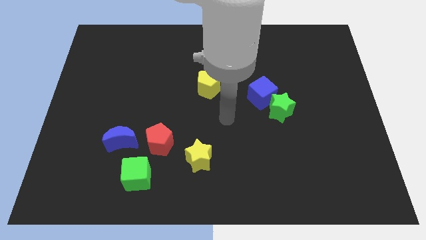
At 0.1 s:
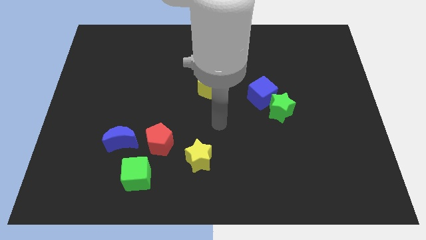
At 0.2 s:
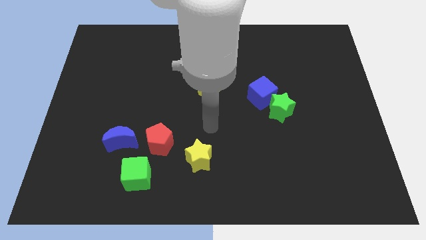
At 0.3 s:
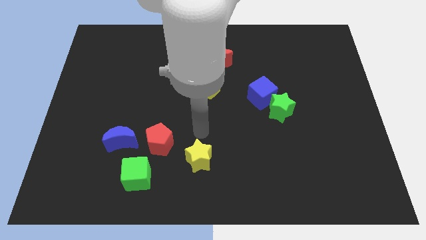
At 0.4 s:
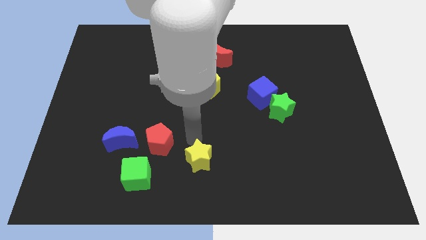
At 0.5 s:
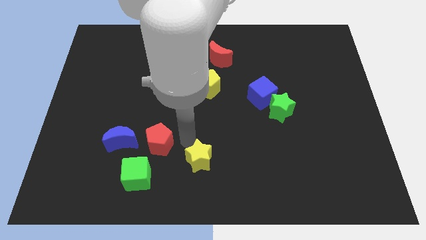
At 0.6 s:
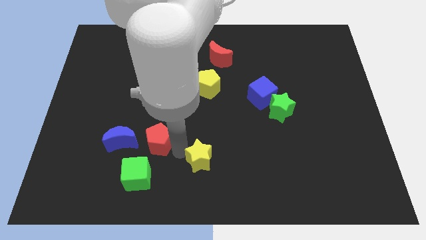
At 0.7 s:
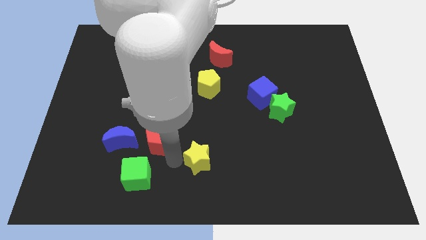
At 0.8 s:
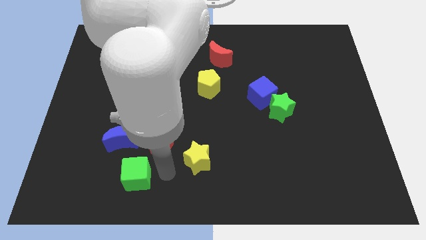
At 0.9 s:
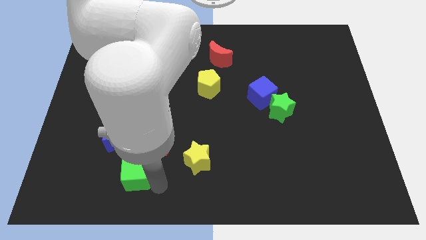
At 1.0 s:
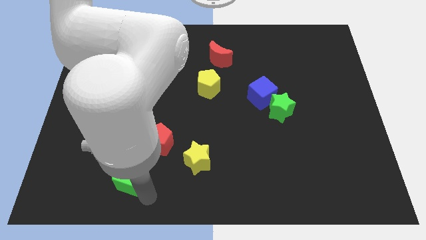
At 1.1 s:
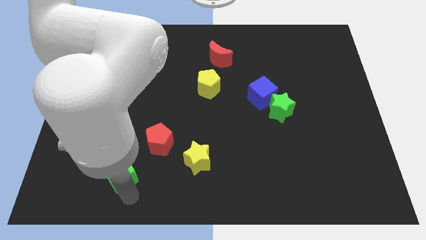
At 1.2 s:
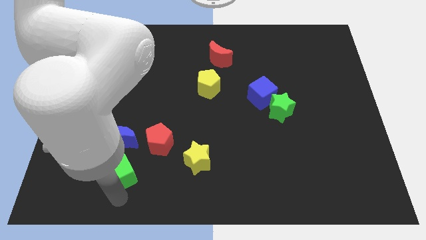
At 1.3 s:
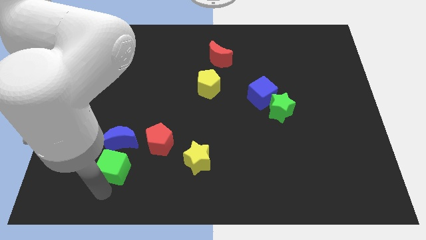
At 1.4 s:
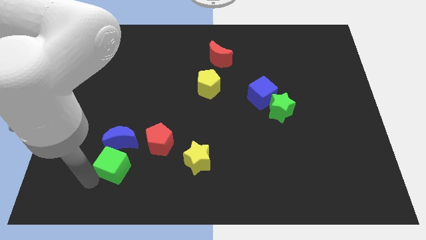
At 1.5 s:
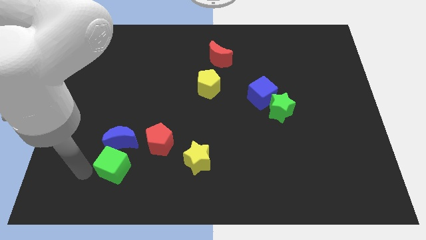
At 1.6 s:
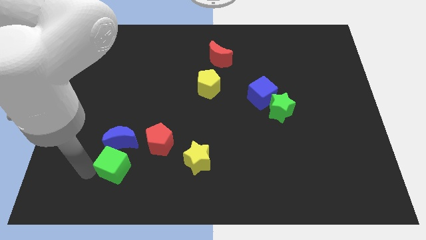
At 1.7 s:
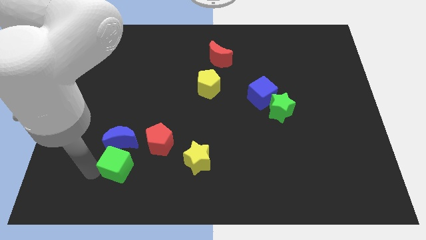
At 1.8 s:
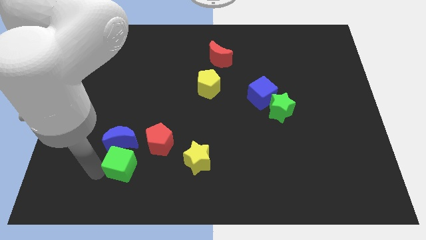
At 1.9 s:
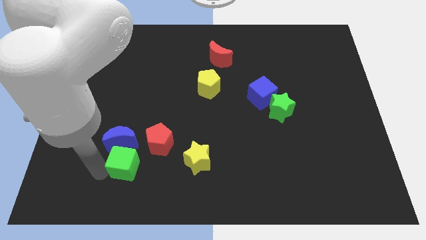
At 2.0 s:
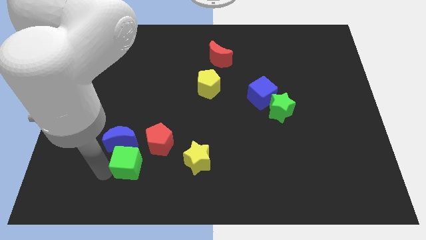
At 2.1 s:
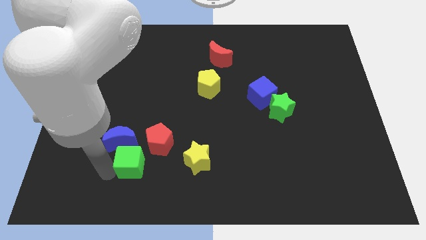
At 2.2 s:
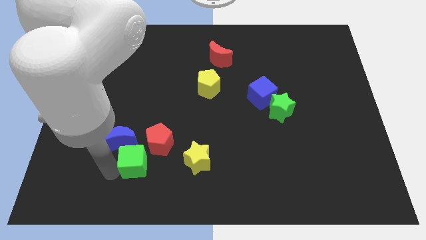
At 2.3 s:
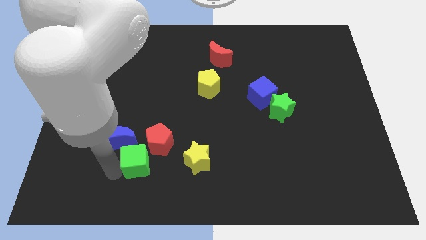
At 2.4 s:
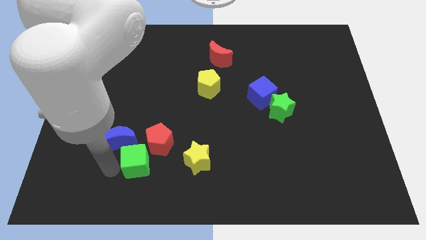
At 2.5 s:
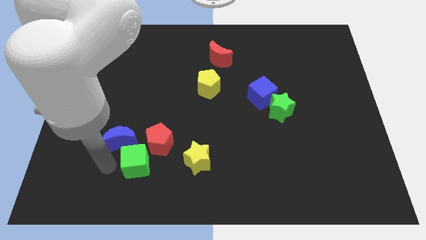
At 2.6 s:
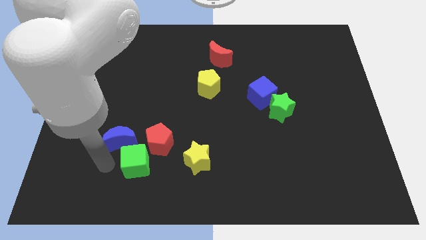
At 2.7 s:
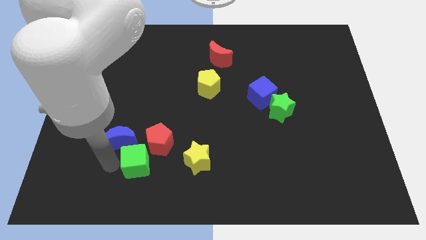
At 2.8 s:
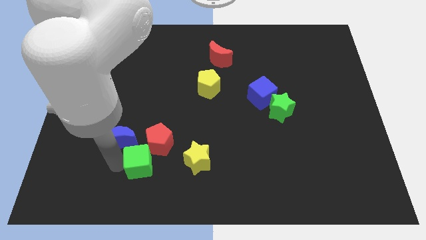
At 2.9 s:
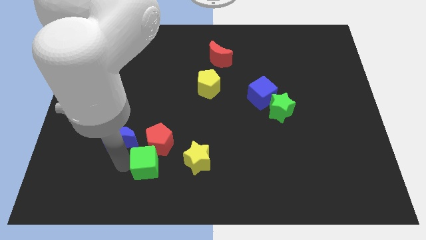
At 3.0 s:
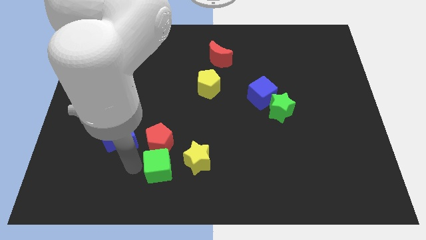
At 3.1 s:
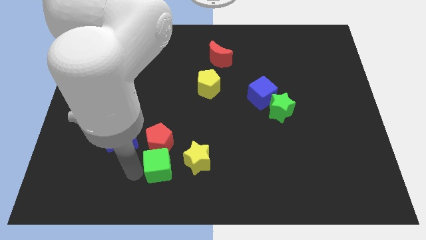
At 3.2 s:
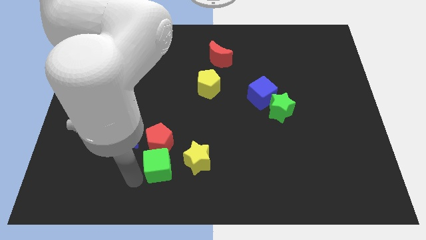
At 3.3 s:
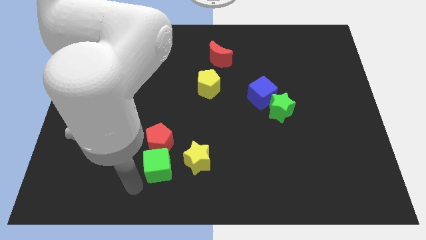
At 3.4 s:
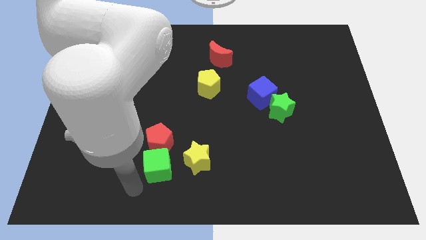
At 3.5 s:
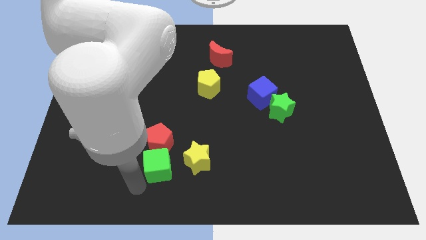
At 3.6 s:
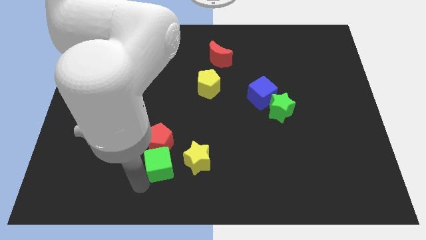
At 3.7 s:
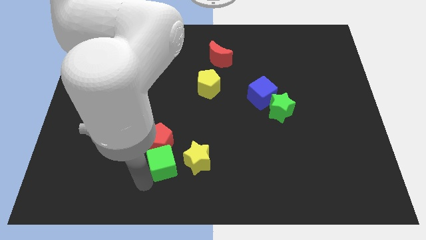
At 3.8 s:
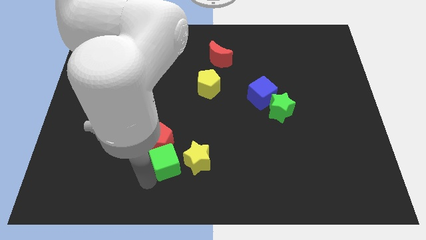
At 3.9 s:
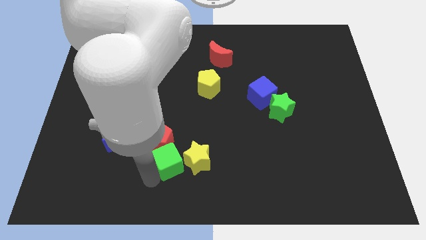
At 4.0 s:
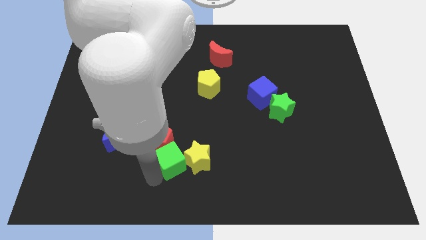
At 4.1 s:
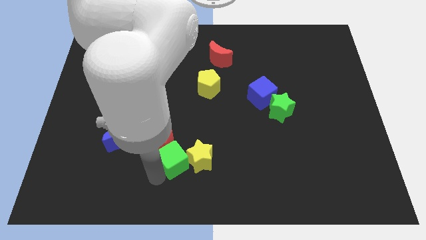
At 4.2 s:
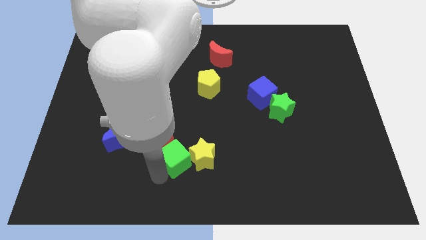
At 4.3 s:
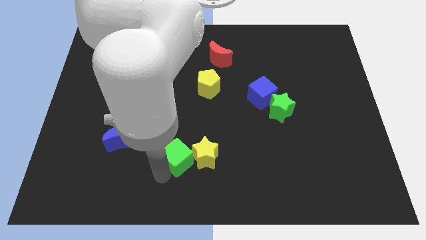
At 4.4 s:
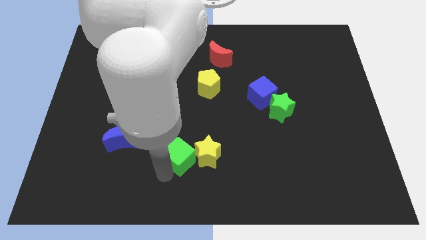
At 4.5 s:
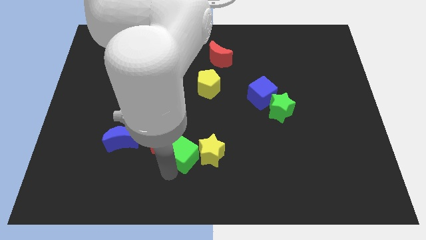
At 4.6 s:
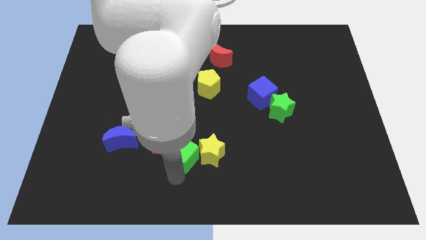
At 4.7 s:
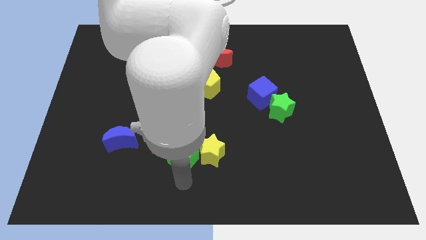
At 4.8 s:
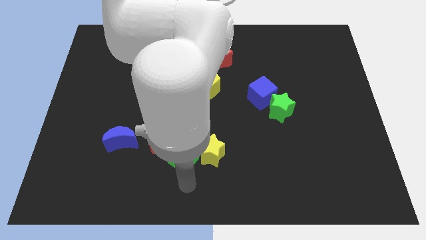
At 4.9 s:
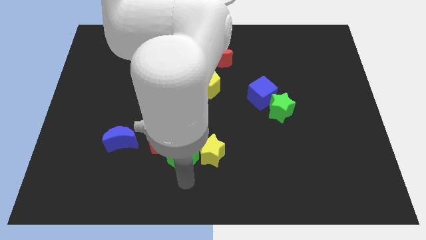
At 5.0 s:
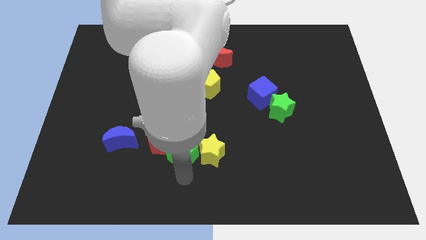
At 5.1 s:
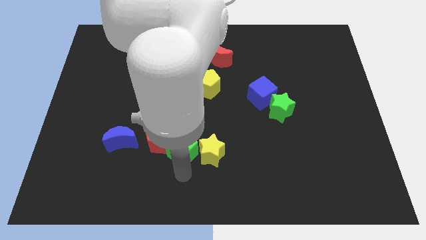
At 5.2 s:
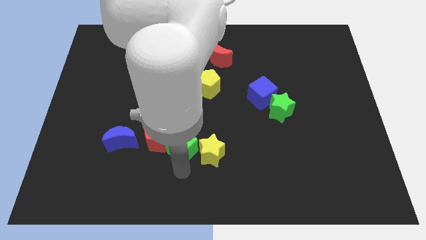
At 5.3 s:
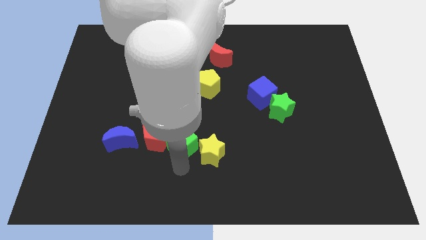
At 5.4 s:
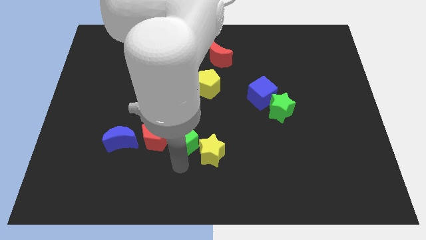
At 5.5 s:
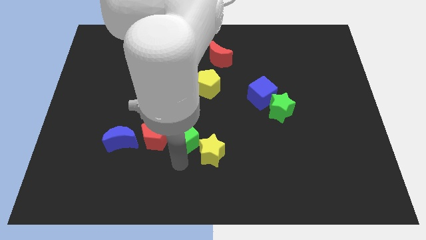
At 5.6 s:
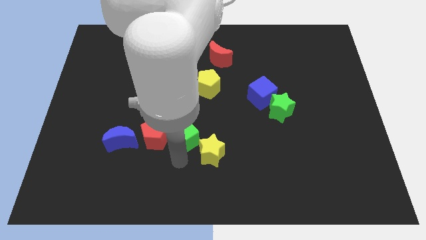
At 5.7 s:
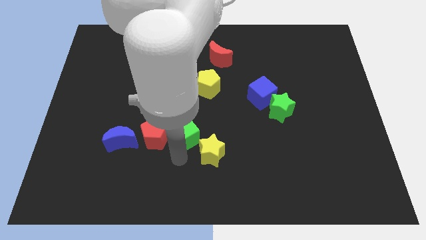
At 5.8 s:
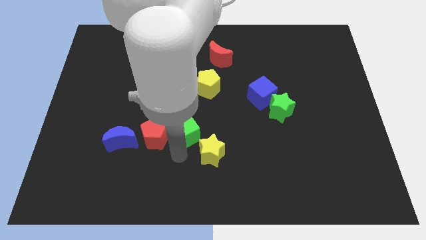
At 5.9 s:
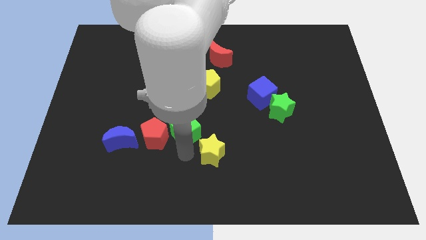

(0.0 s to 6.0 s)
slide the green cube upwards a bit

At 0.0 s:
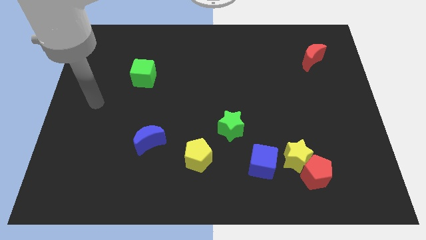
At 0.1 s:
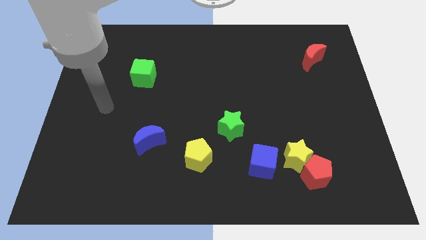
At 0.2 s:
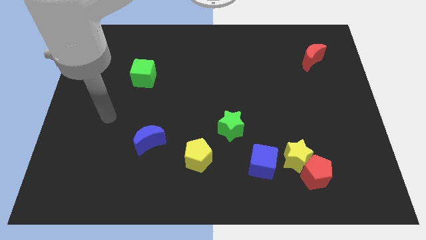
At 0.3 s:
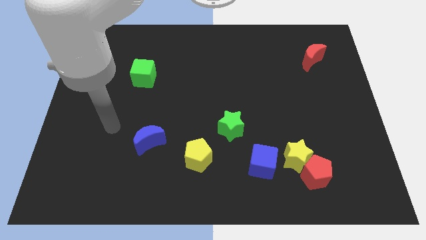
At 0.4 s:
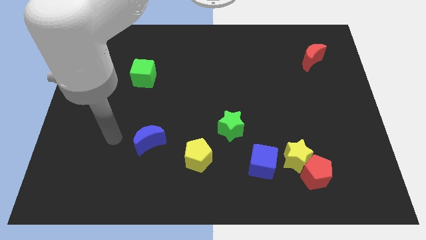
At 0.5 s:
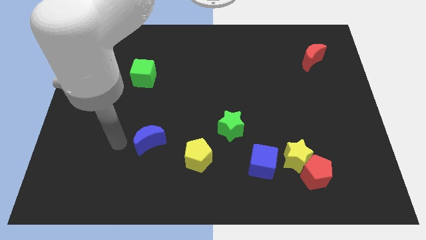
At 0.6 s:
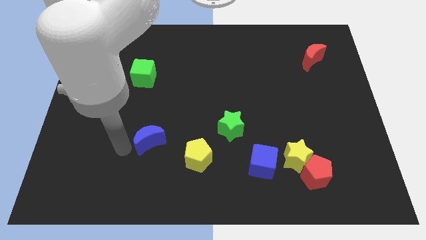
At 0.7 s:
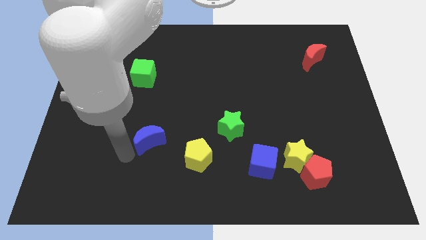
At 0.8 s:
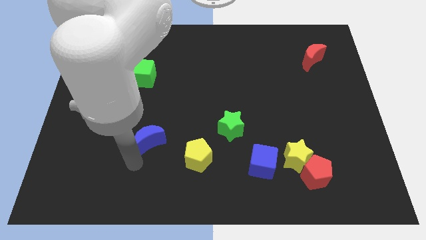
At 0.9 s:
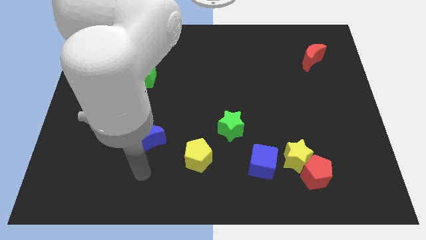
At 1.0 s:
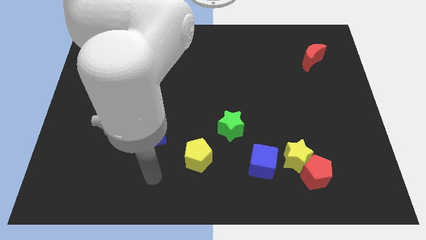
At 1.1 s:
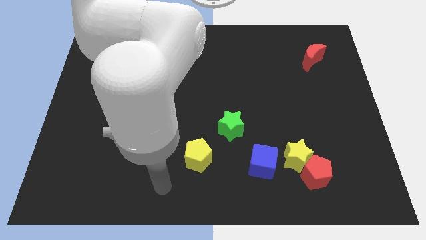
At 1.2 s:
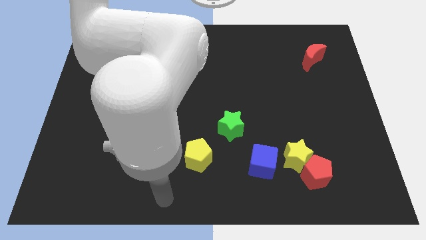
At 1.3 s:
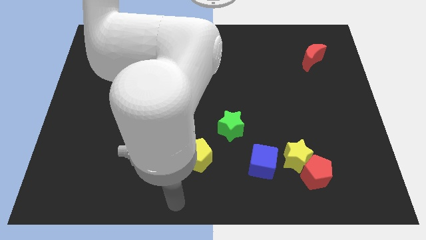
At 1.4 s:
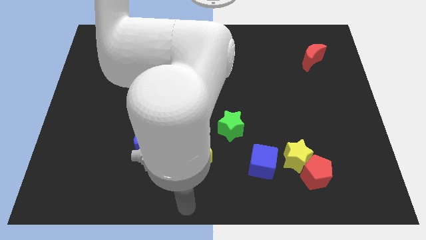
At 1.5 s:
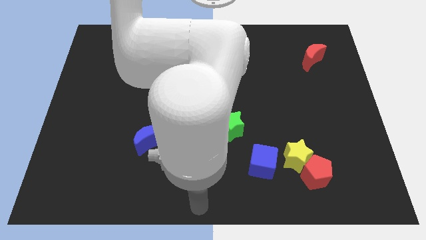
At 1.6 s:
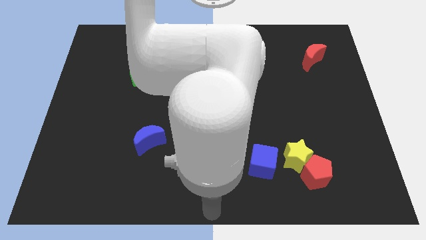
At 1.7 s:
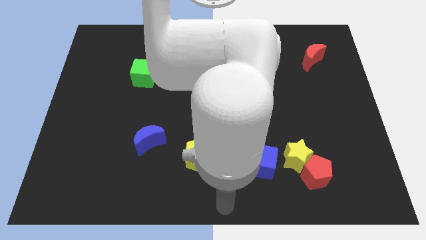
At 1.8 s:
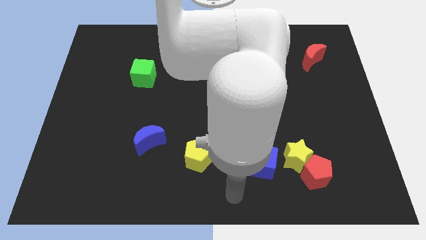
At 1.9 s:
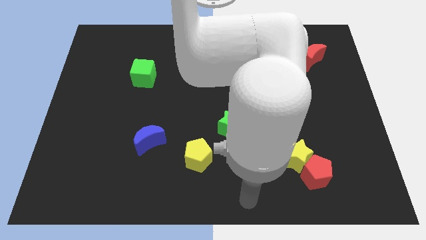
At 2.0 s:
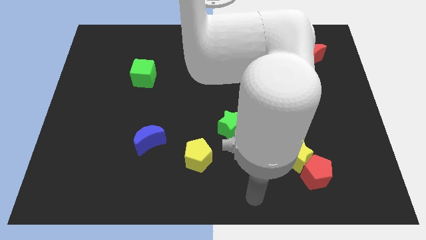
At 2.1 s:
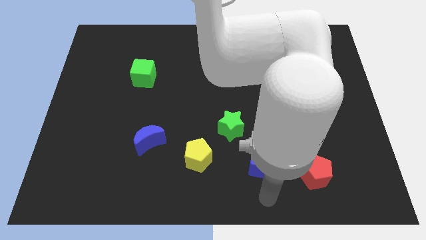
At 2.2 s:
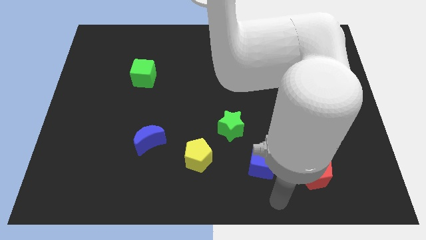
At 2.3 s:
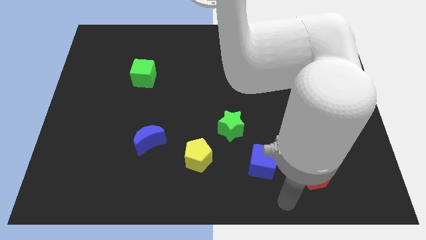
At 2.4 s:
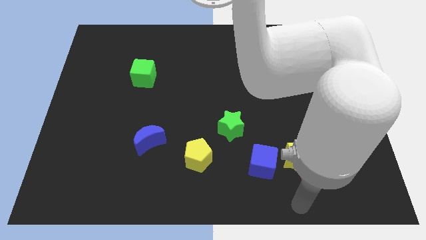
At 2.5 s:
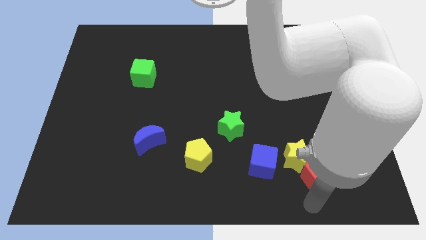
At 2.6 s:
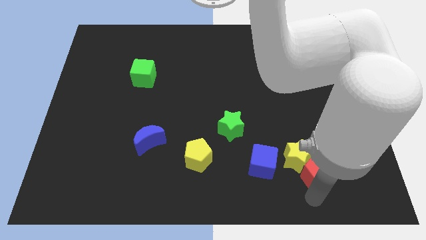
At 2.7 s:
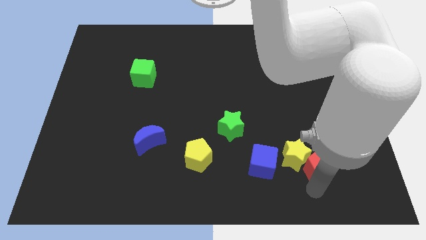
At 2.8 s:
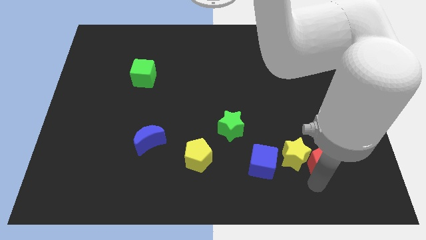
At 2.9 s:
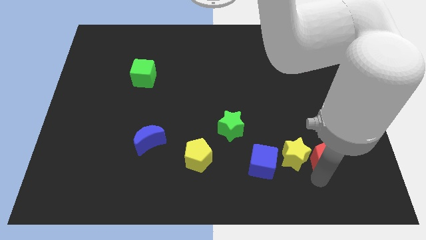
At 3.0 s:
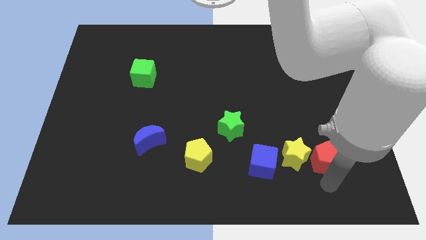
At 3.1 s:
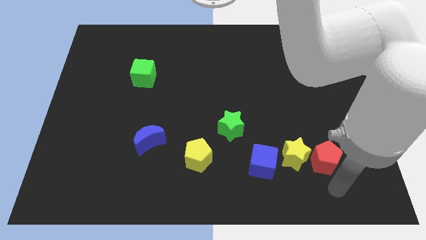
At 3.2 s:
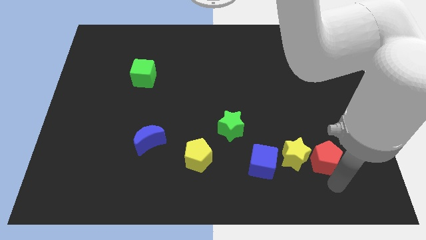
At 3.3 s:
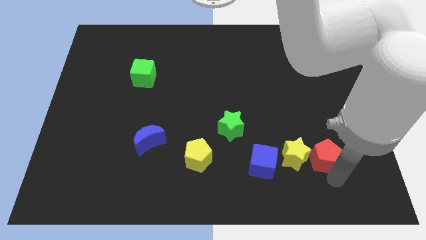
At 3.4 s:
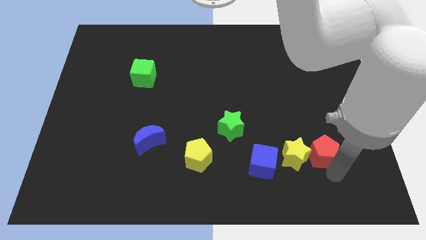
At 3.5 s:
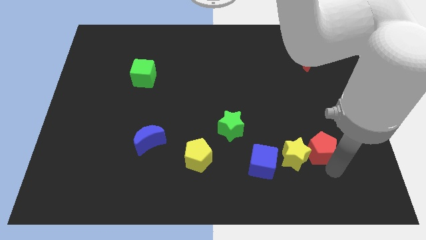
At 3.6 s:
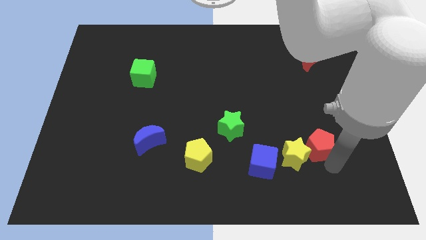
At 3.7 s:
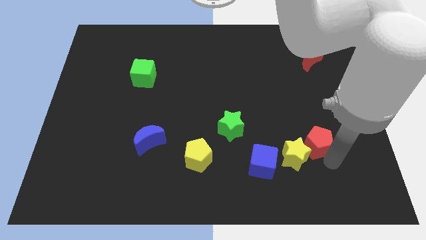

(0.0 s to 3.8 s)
slightly slide the red pentagon upwards
